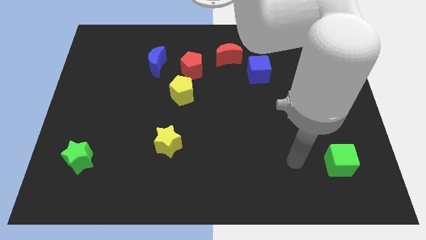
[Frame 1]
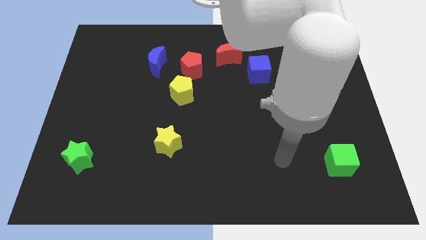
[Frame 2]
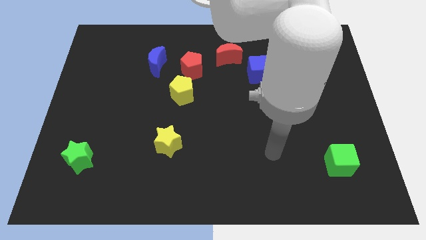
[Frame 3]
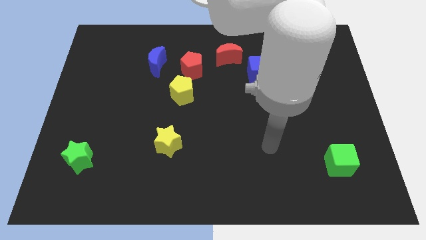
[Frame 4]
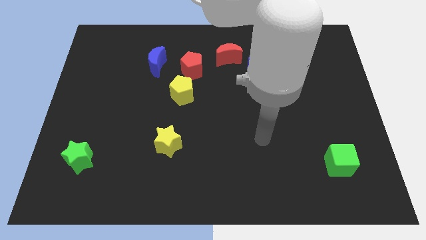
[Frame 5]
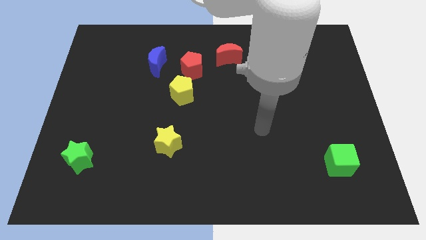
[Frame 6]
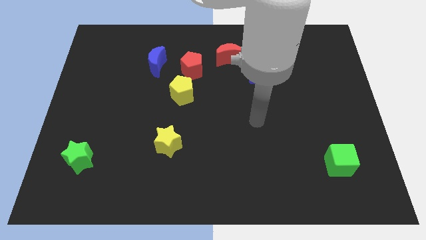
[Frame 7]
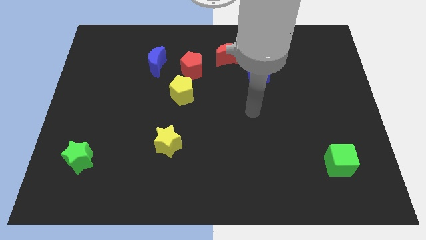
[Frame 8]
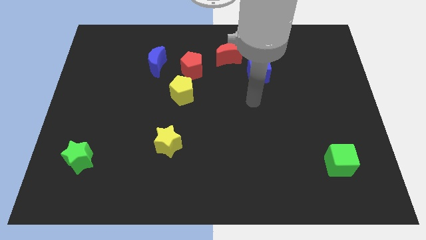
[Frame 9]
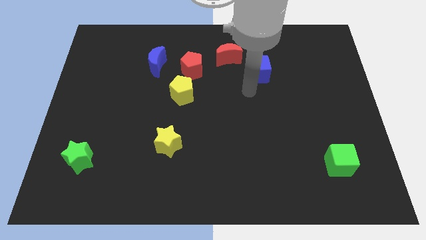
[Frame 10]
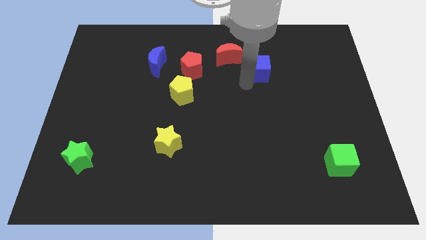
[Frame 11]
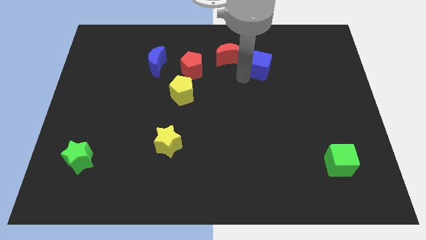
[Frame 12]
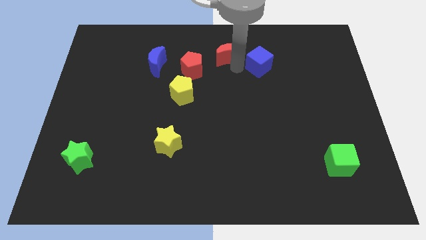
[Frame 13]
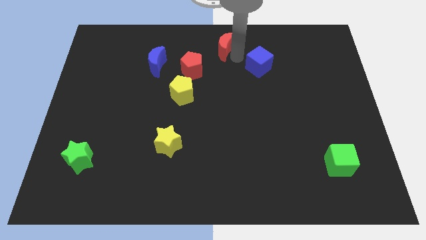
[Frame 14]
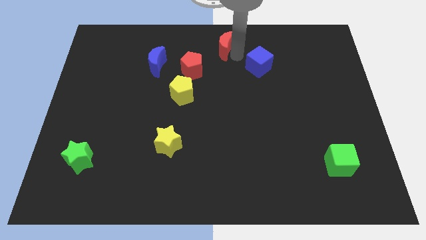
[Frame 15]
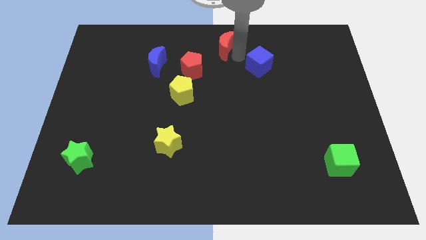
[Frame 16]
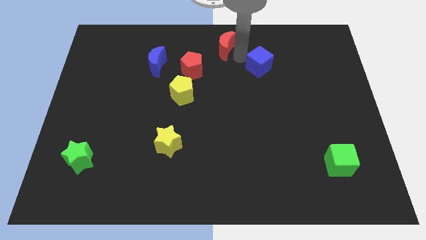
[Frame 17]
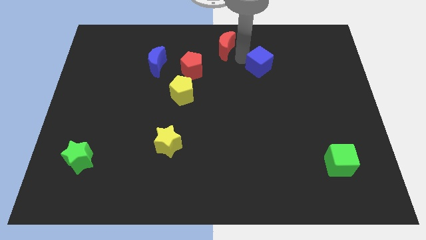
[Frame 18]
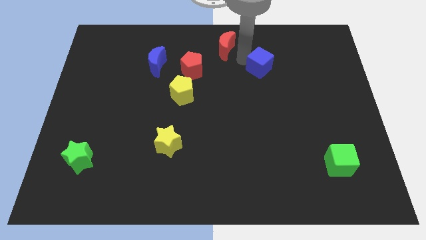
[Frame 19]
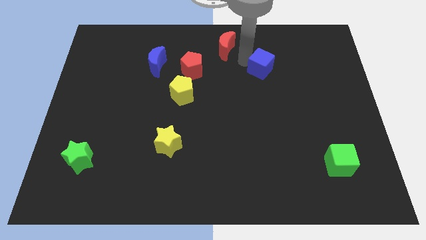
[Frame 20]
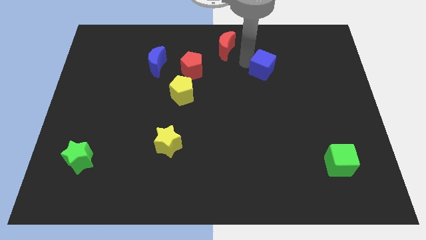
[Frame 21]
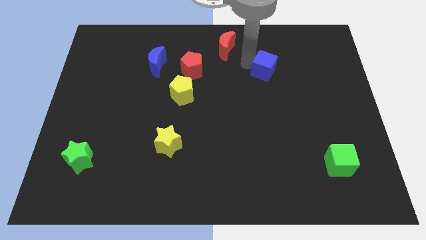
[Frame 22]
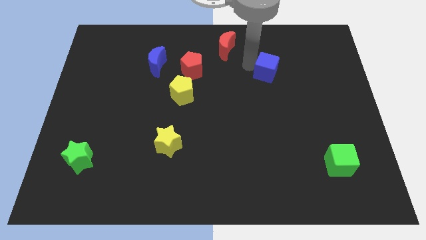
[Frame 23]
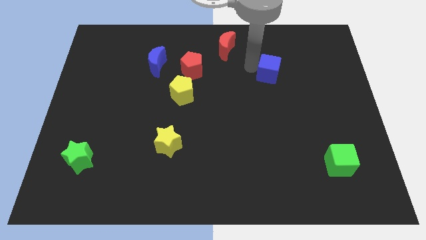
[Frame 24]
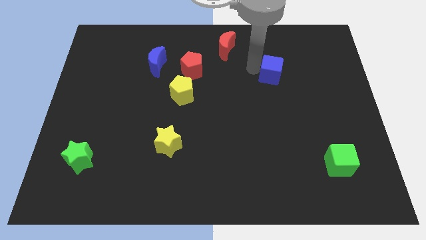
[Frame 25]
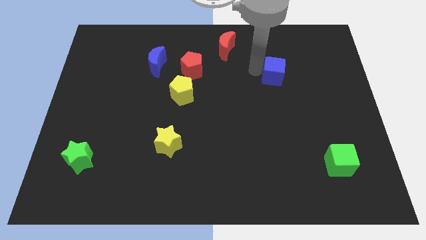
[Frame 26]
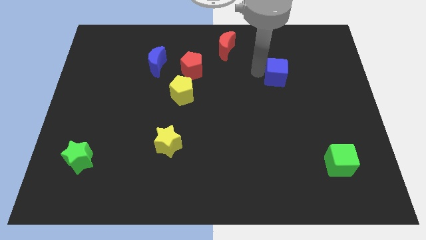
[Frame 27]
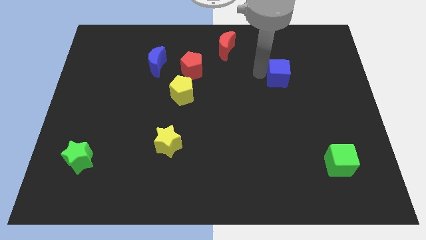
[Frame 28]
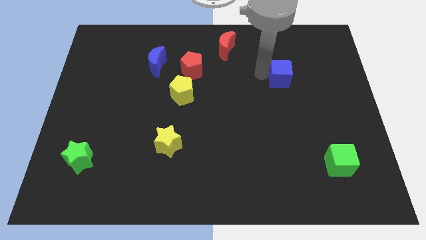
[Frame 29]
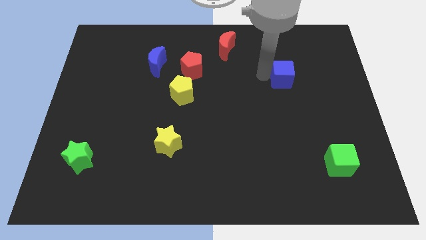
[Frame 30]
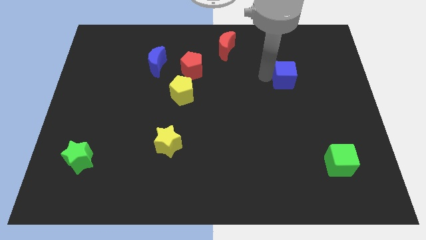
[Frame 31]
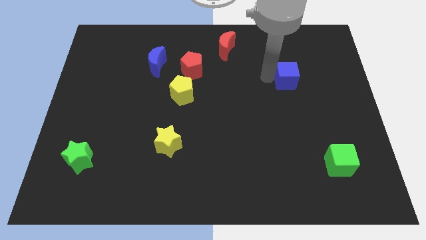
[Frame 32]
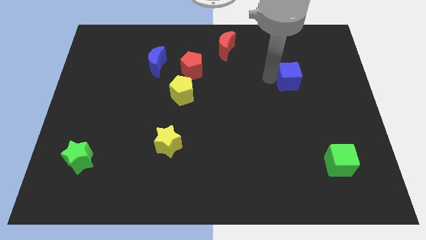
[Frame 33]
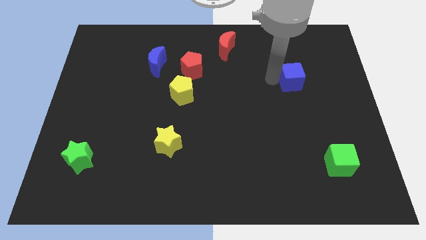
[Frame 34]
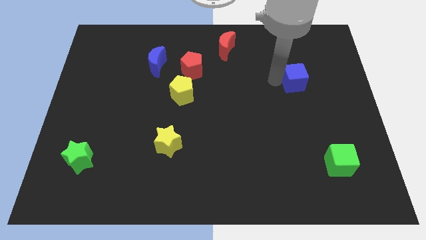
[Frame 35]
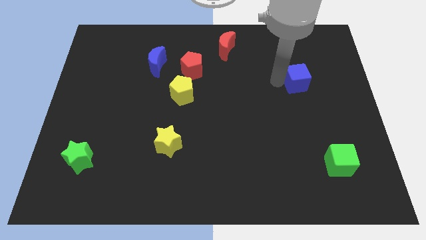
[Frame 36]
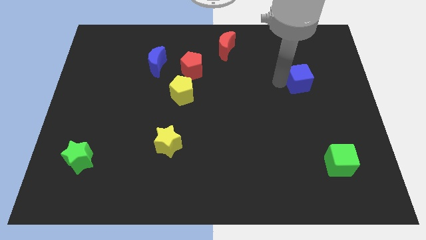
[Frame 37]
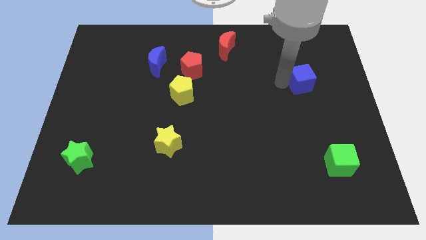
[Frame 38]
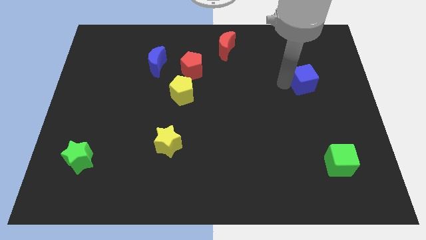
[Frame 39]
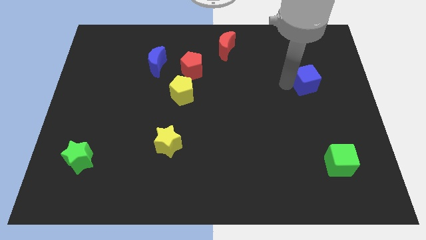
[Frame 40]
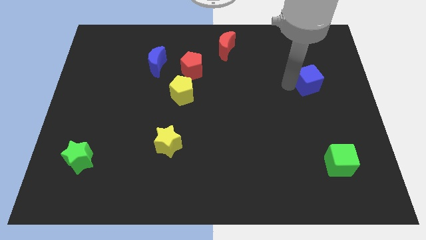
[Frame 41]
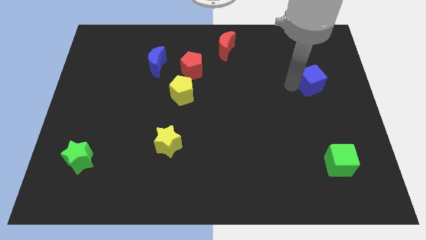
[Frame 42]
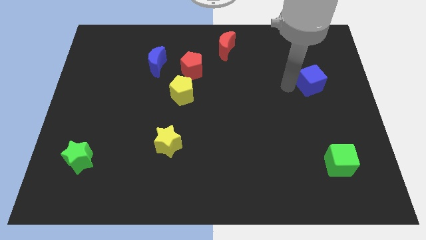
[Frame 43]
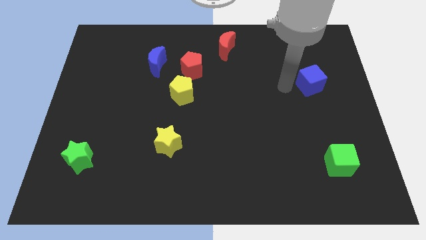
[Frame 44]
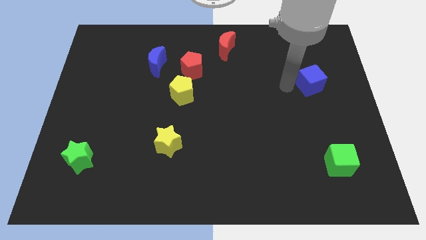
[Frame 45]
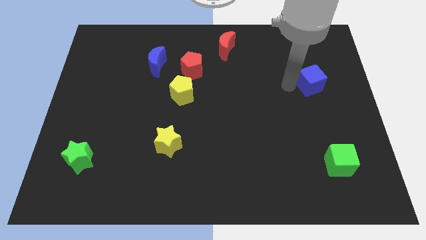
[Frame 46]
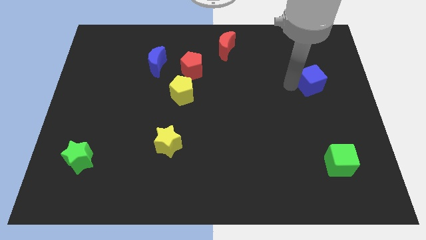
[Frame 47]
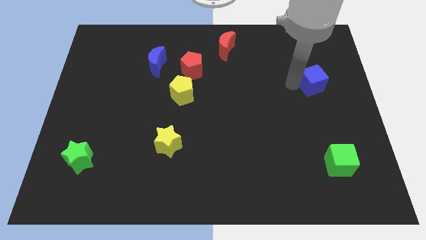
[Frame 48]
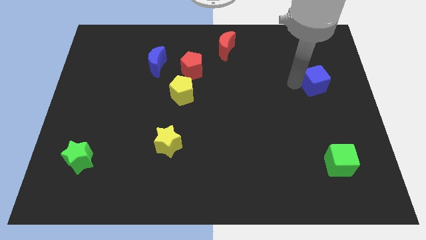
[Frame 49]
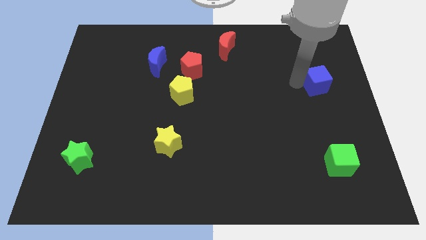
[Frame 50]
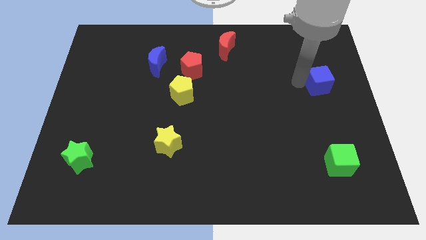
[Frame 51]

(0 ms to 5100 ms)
move the blue cube to the right side
